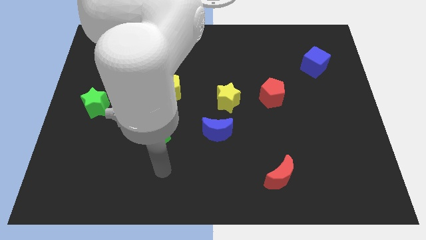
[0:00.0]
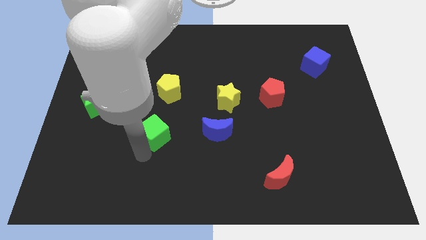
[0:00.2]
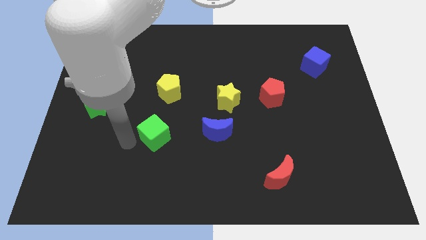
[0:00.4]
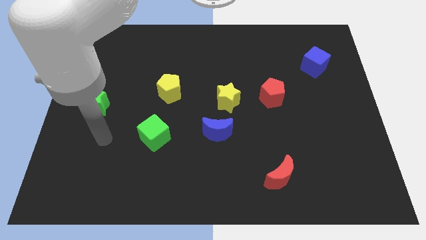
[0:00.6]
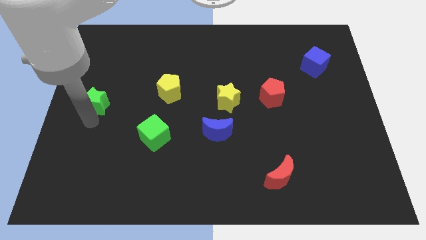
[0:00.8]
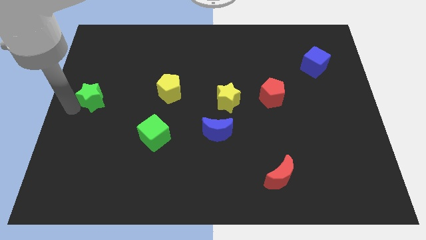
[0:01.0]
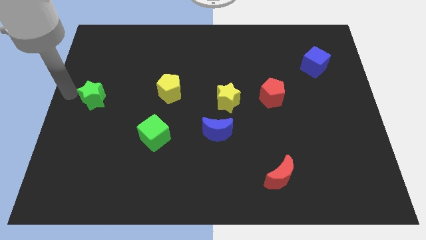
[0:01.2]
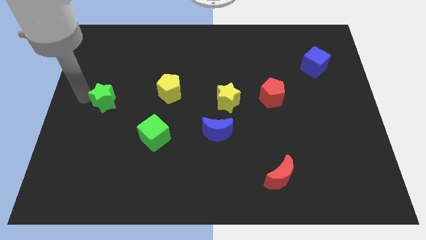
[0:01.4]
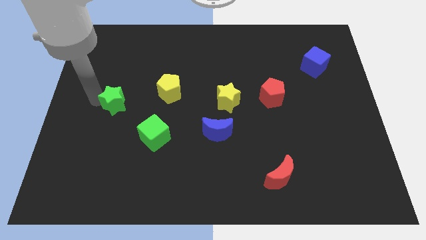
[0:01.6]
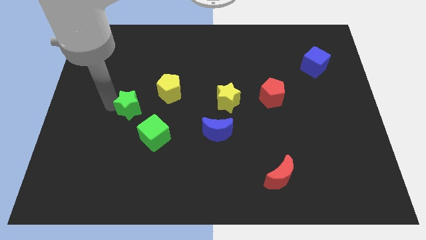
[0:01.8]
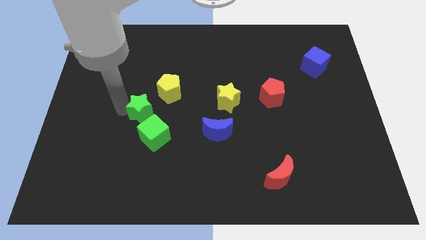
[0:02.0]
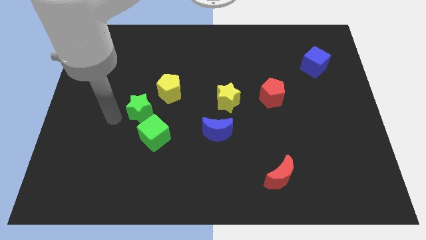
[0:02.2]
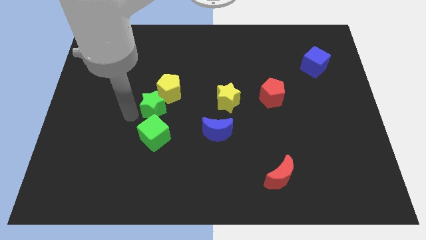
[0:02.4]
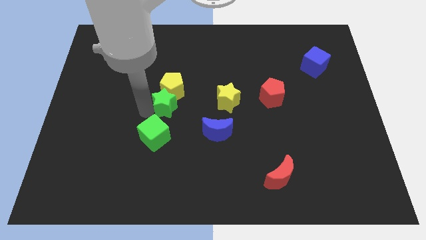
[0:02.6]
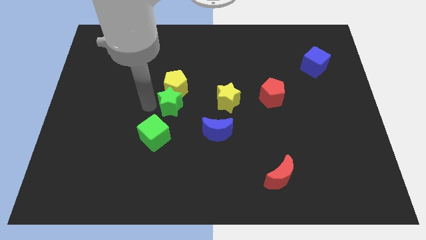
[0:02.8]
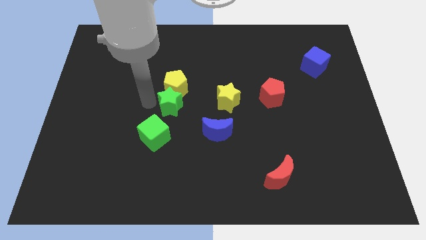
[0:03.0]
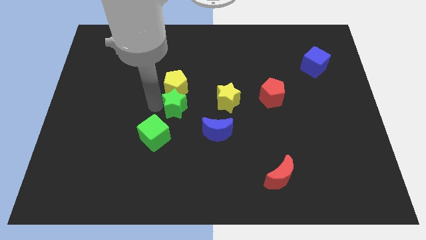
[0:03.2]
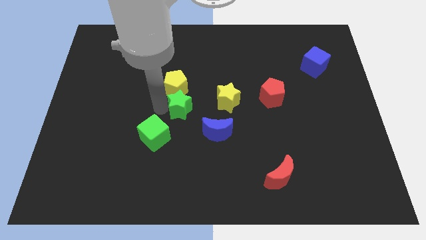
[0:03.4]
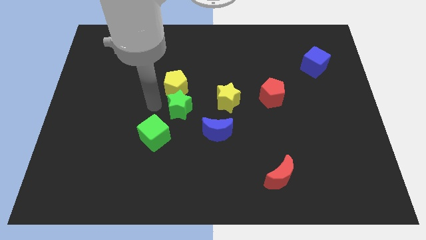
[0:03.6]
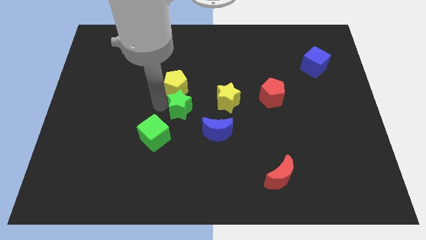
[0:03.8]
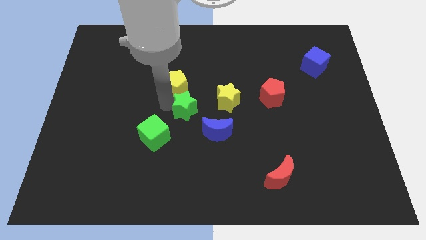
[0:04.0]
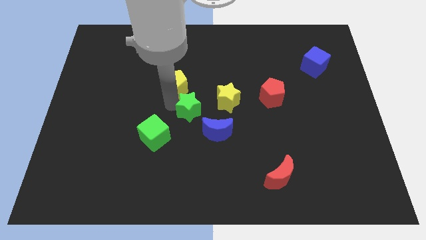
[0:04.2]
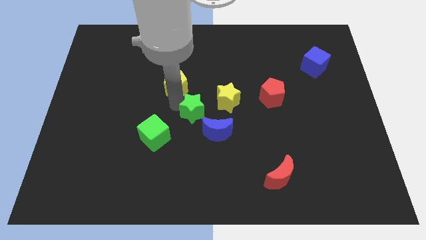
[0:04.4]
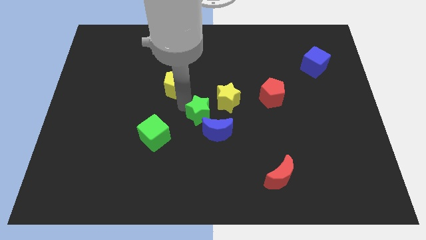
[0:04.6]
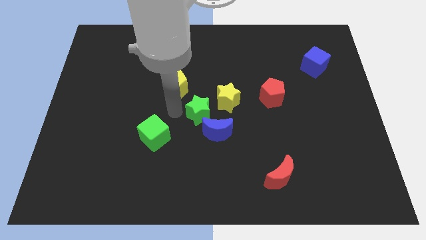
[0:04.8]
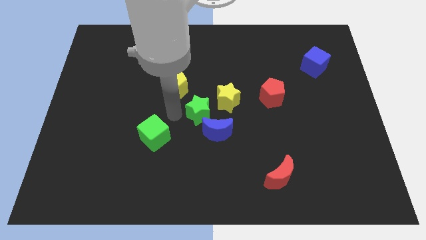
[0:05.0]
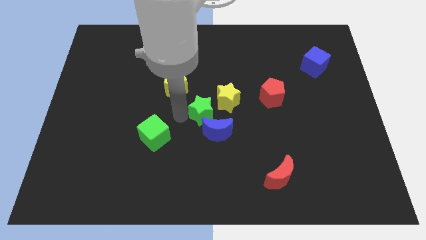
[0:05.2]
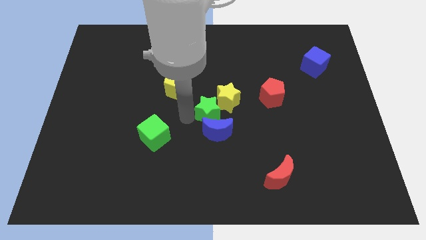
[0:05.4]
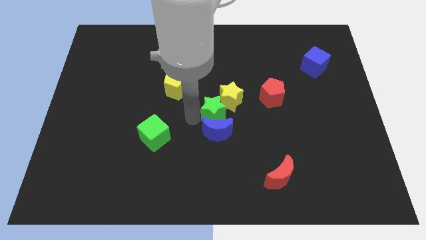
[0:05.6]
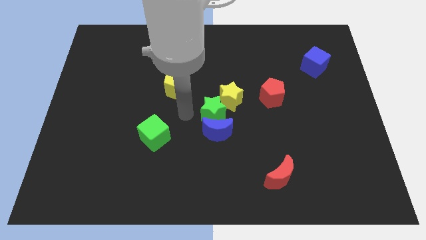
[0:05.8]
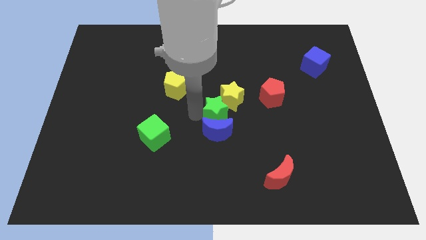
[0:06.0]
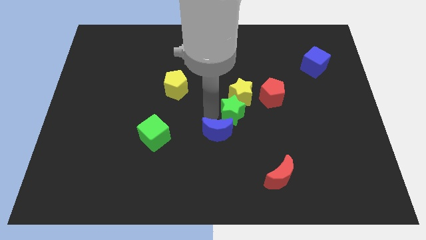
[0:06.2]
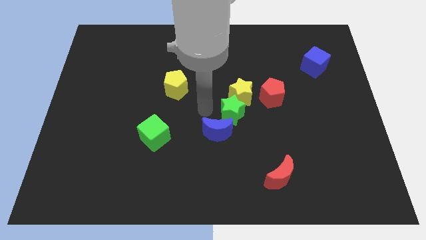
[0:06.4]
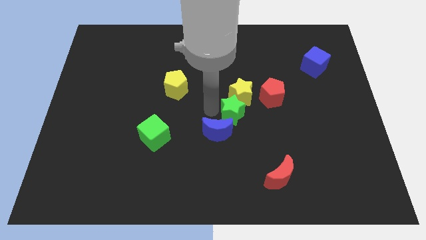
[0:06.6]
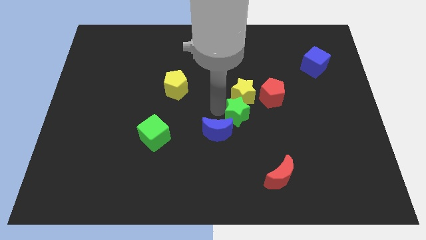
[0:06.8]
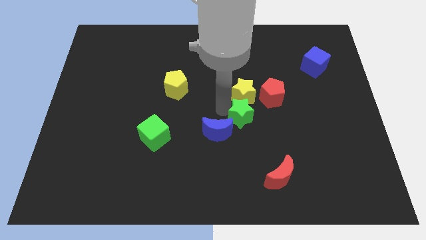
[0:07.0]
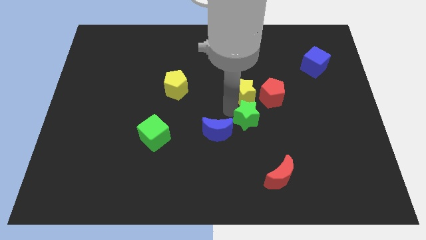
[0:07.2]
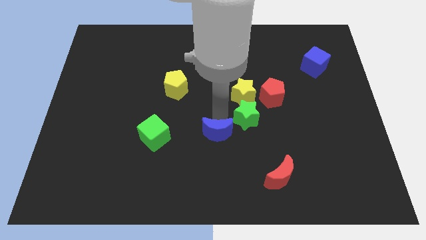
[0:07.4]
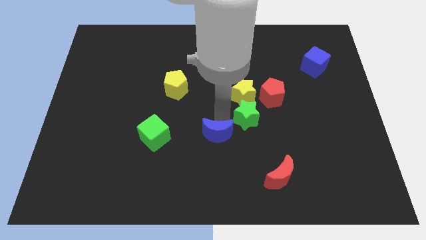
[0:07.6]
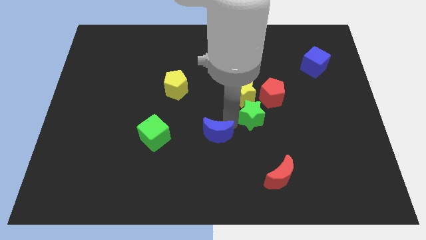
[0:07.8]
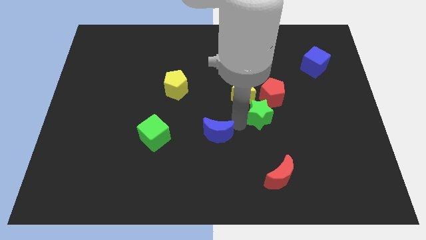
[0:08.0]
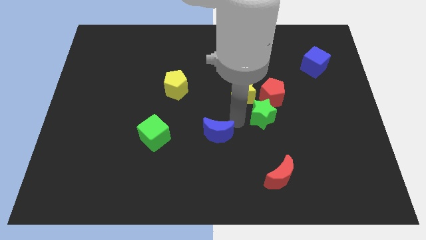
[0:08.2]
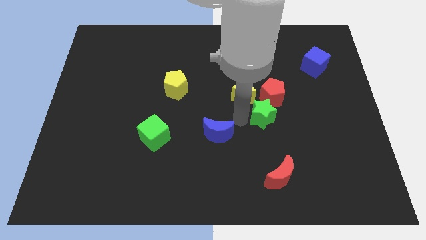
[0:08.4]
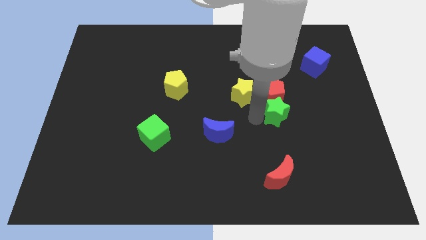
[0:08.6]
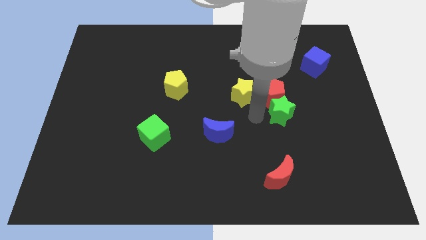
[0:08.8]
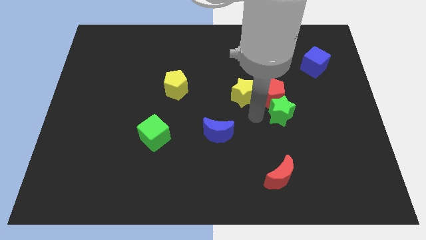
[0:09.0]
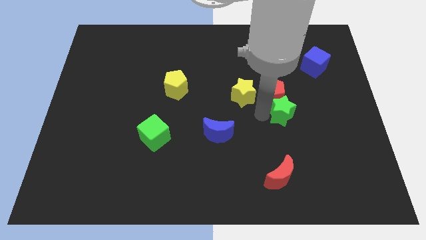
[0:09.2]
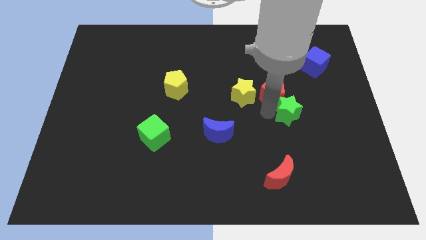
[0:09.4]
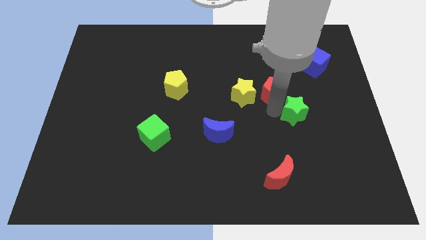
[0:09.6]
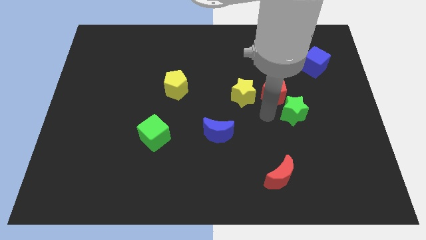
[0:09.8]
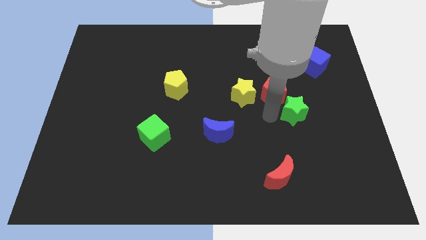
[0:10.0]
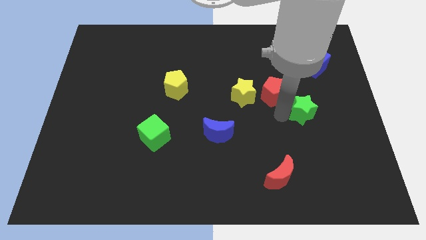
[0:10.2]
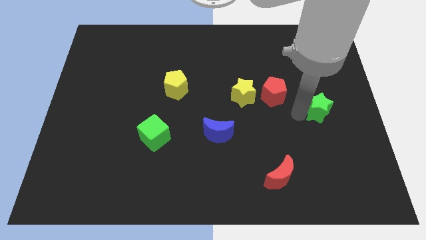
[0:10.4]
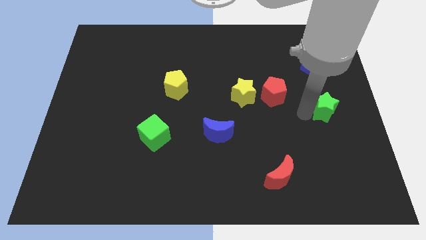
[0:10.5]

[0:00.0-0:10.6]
move the green star to the right side

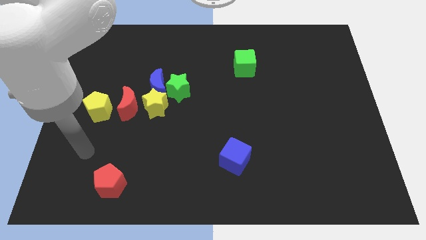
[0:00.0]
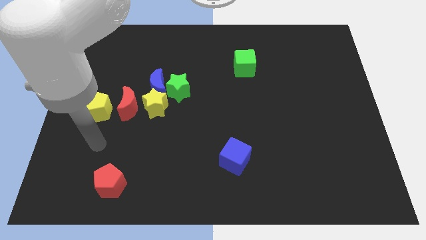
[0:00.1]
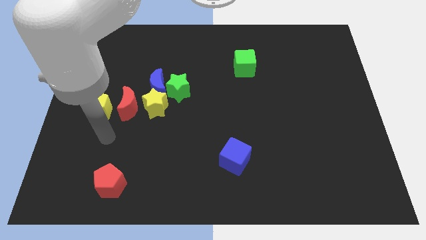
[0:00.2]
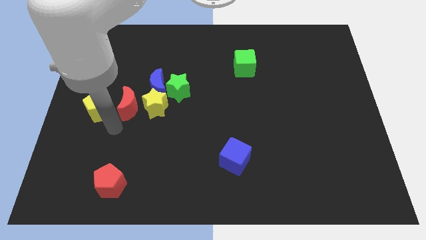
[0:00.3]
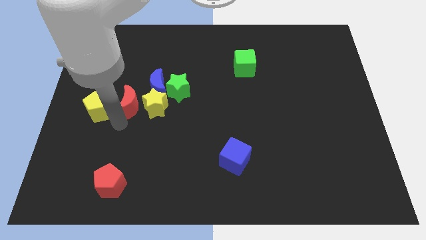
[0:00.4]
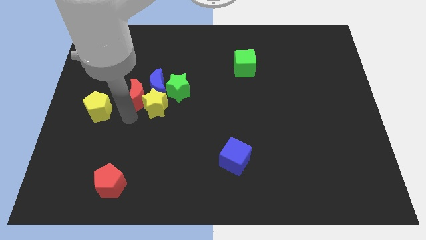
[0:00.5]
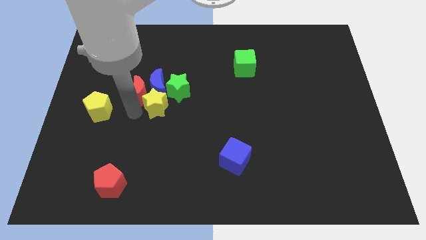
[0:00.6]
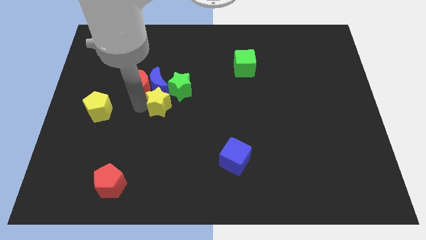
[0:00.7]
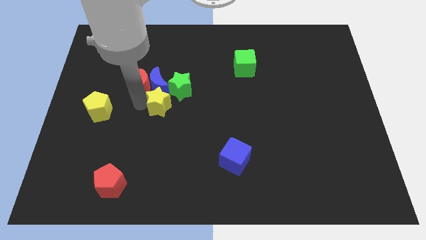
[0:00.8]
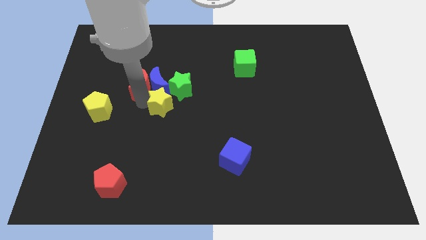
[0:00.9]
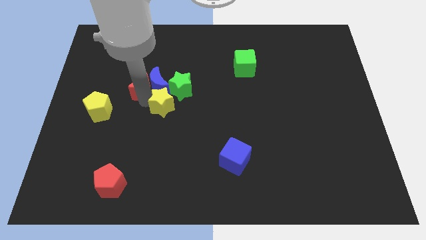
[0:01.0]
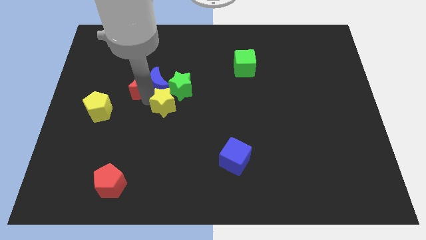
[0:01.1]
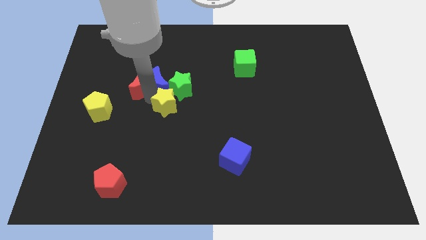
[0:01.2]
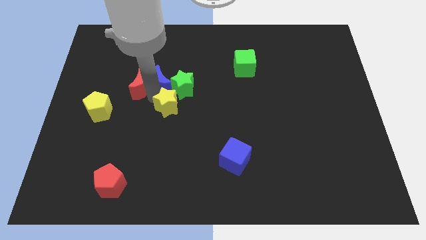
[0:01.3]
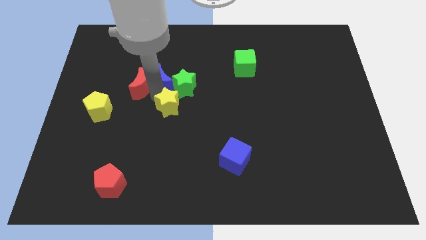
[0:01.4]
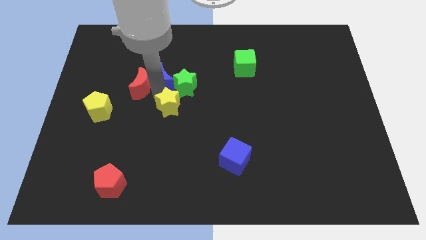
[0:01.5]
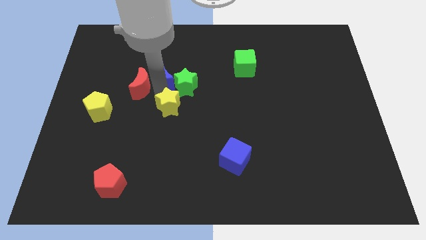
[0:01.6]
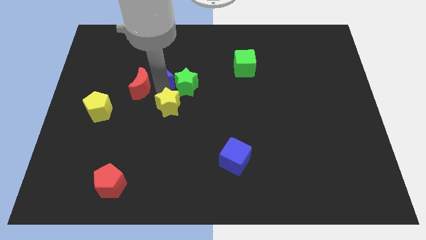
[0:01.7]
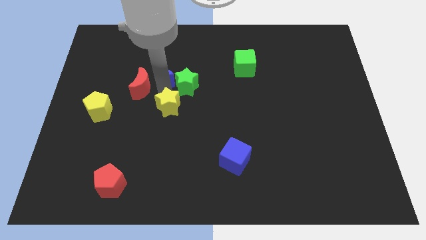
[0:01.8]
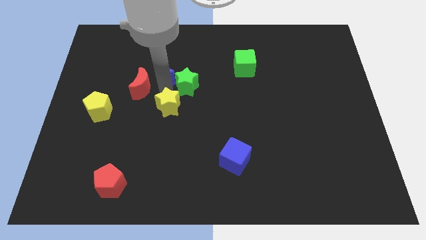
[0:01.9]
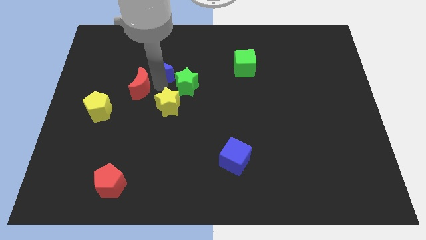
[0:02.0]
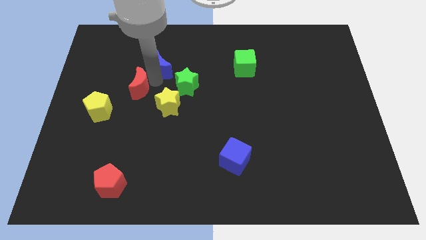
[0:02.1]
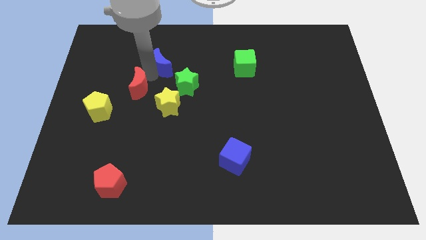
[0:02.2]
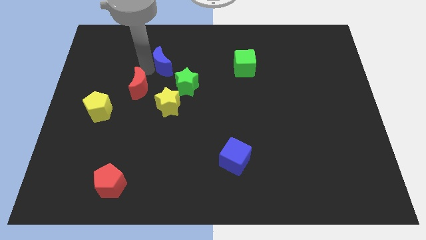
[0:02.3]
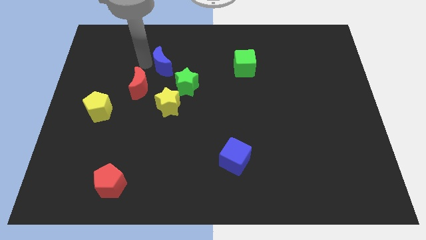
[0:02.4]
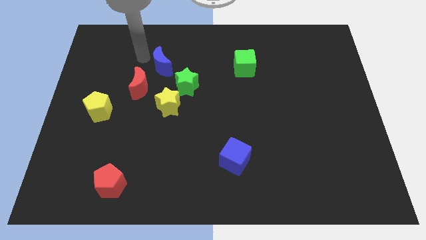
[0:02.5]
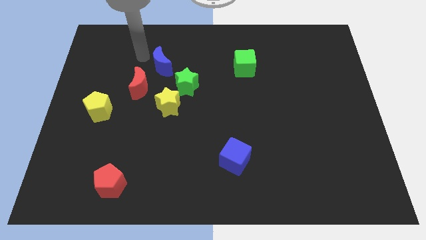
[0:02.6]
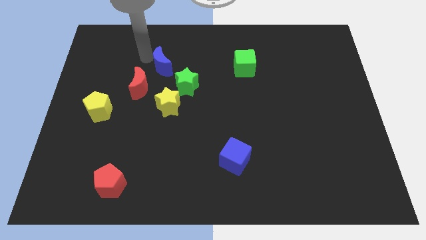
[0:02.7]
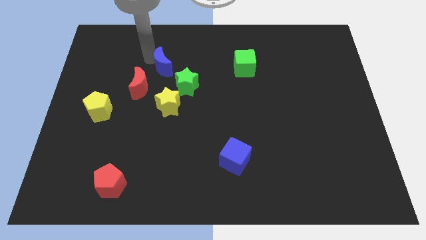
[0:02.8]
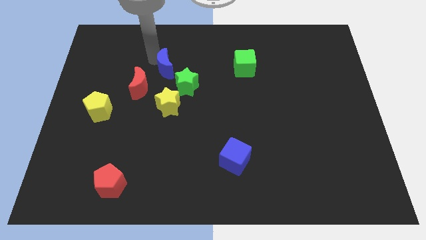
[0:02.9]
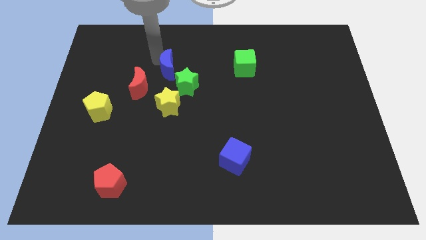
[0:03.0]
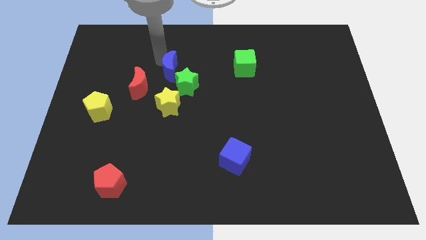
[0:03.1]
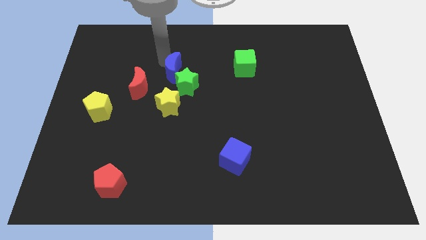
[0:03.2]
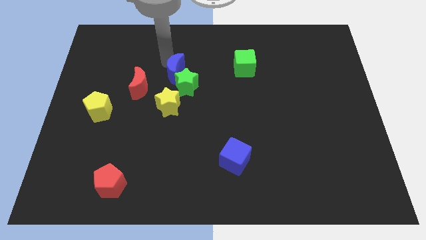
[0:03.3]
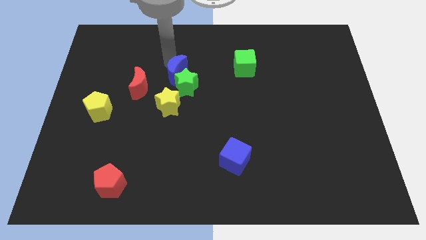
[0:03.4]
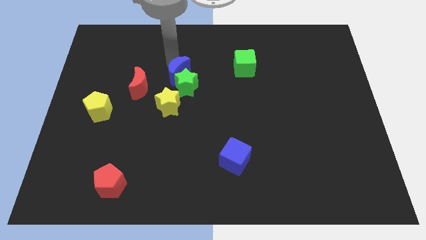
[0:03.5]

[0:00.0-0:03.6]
move the blue moon to the center of the board
